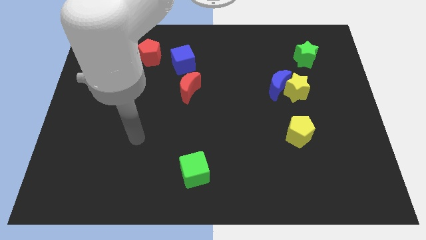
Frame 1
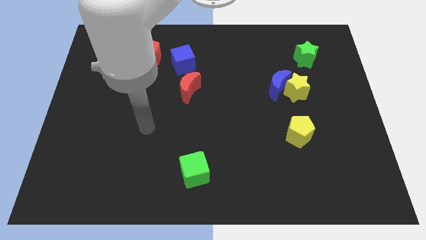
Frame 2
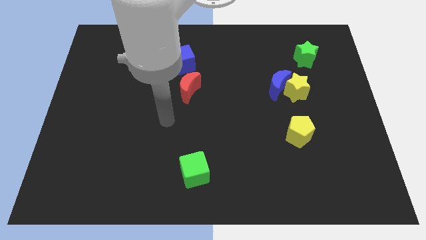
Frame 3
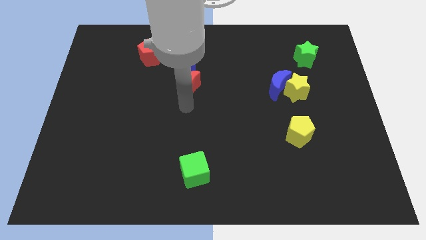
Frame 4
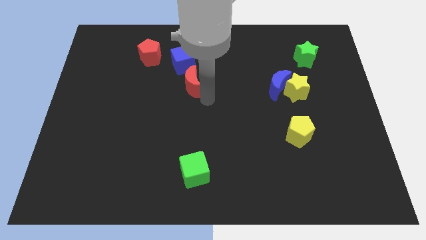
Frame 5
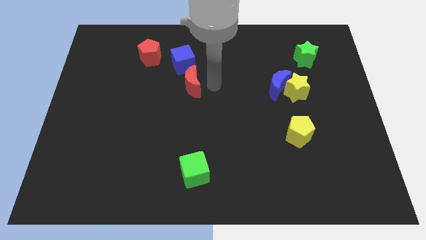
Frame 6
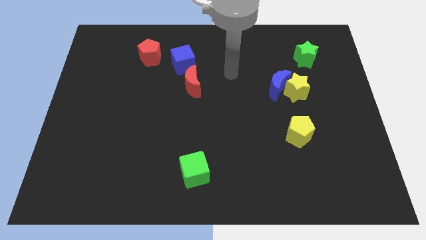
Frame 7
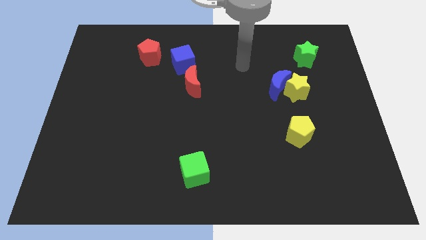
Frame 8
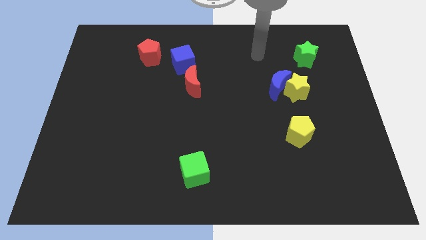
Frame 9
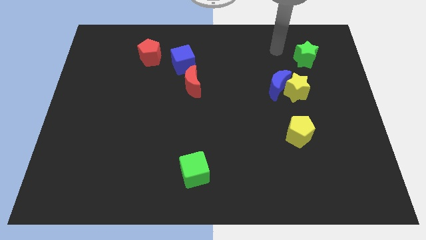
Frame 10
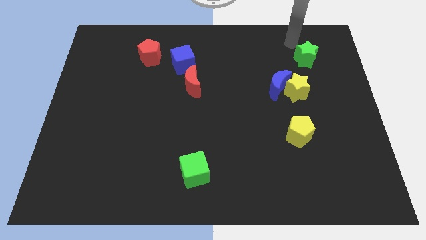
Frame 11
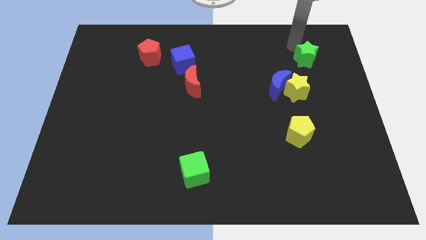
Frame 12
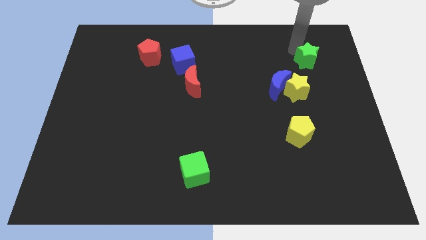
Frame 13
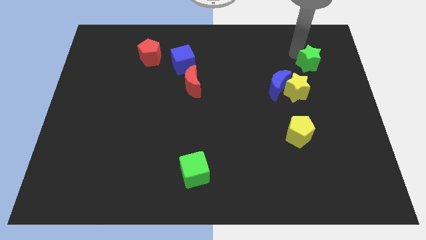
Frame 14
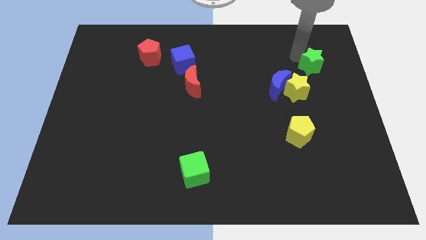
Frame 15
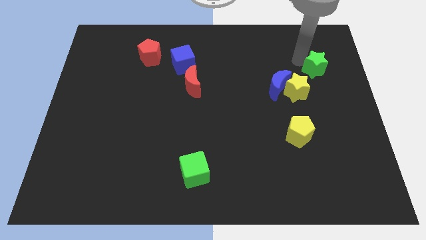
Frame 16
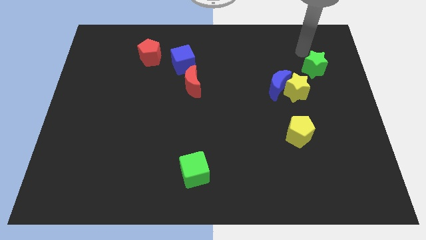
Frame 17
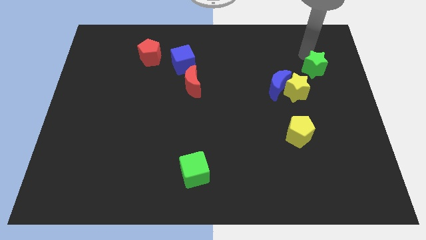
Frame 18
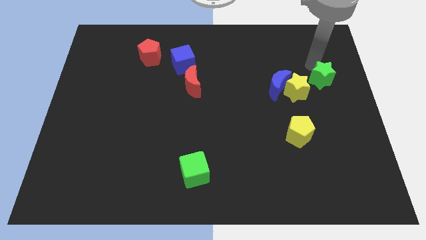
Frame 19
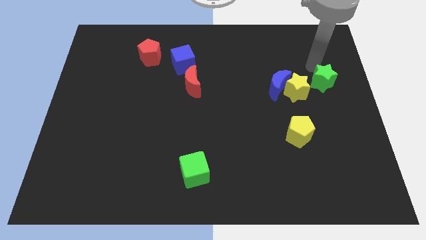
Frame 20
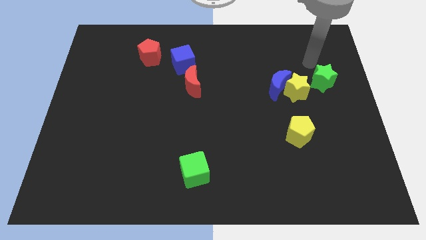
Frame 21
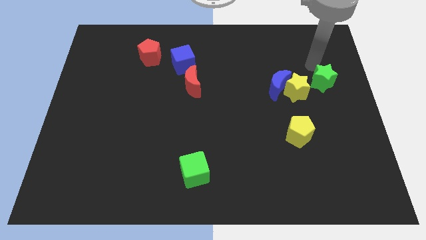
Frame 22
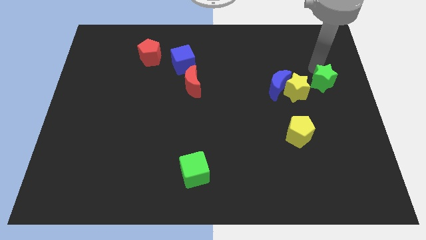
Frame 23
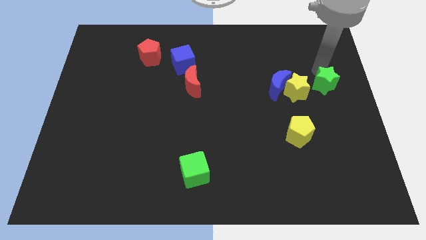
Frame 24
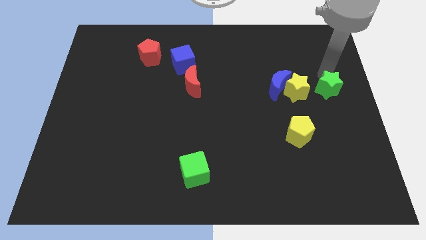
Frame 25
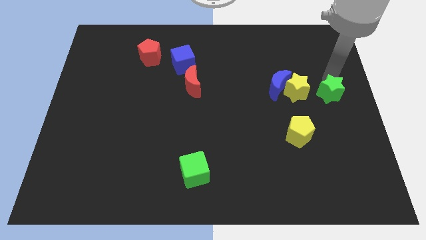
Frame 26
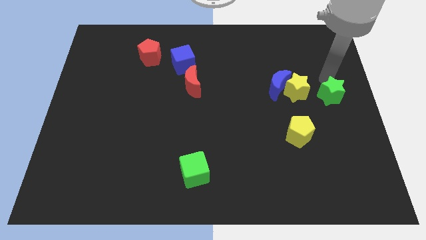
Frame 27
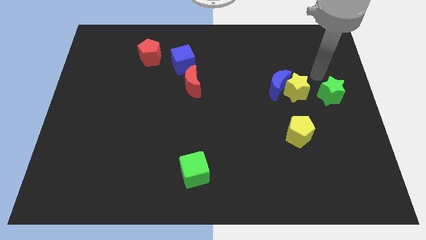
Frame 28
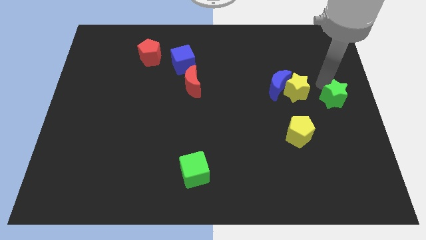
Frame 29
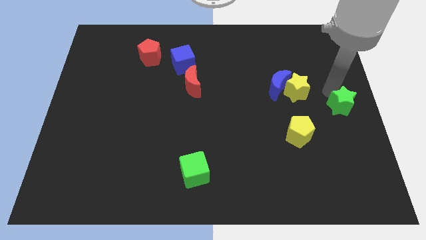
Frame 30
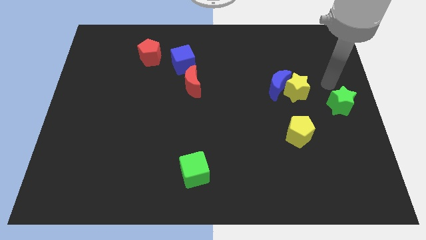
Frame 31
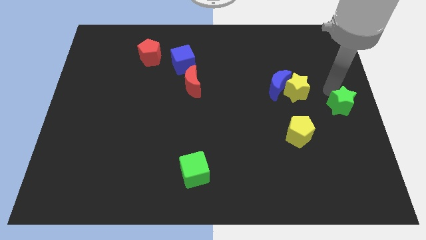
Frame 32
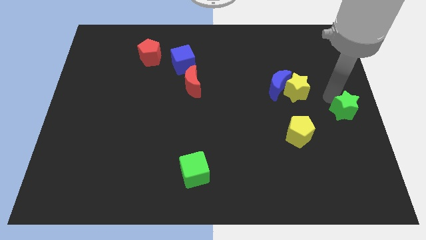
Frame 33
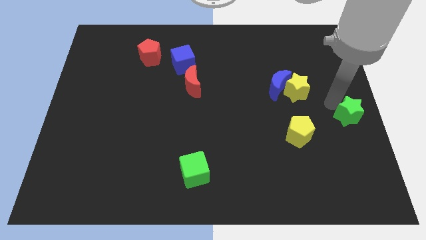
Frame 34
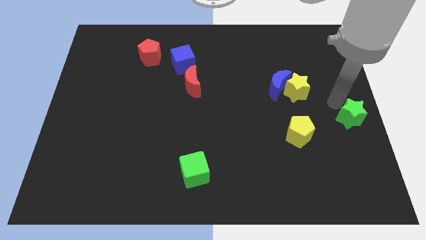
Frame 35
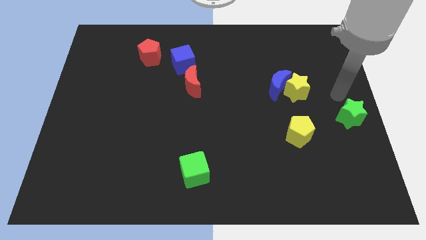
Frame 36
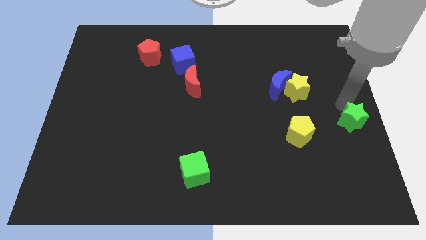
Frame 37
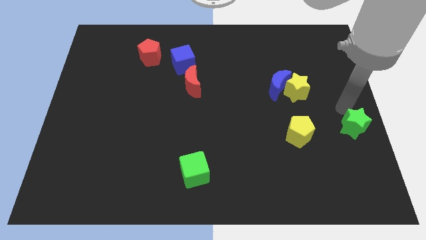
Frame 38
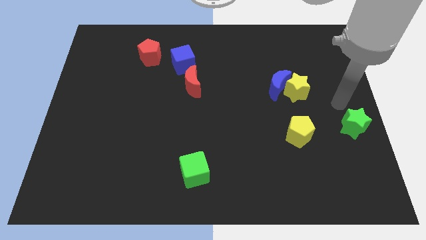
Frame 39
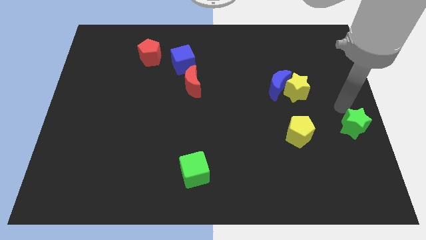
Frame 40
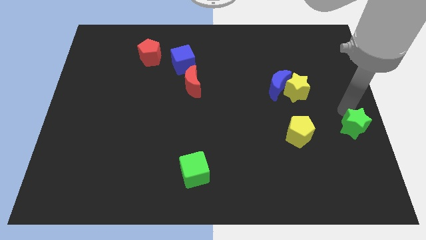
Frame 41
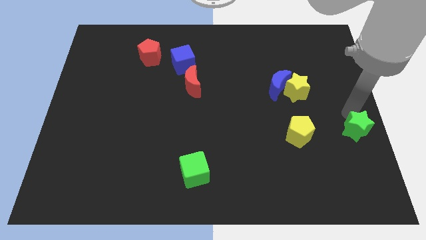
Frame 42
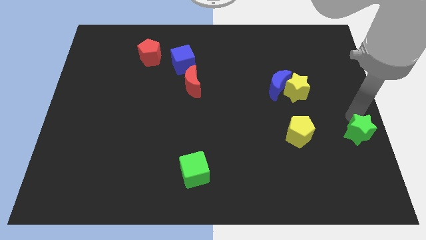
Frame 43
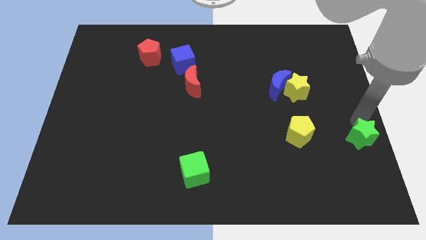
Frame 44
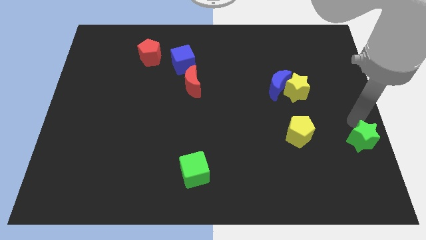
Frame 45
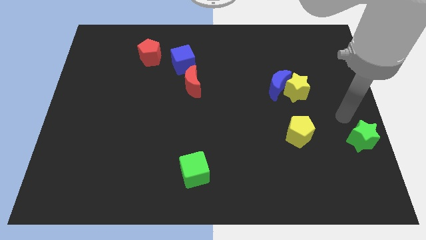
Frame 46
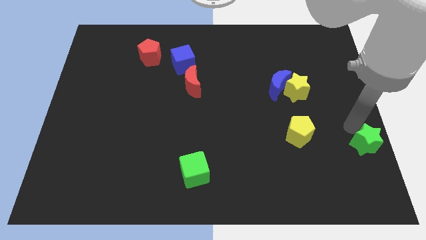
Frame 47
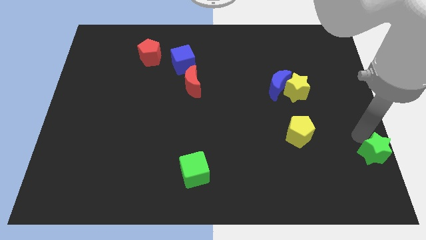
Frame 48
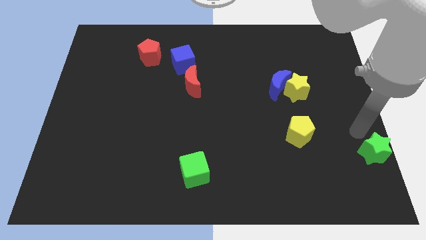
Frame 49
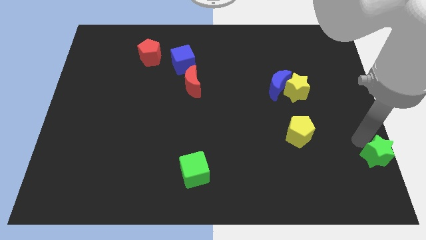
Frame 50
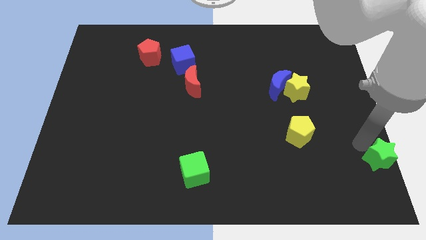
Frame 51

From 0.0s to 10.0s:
put the green star to the lower right corner

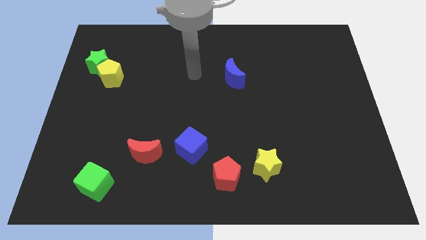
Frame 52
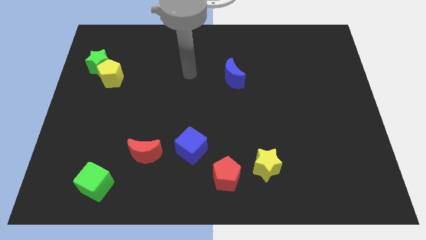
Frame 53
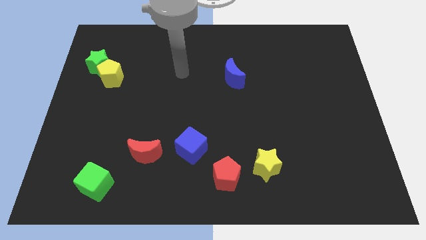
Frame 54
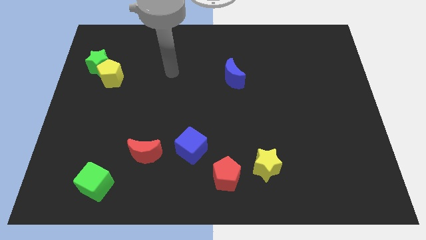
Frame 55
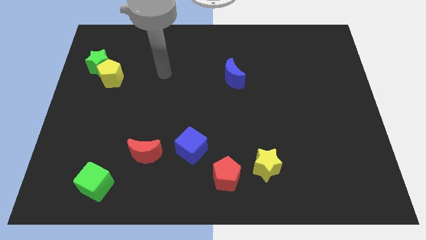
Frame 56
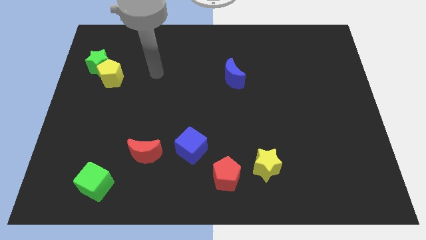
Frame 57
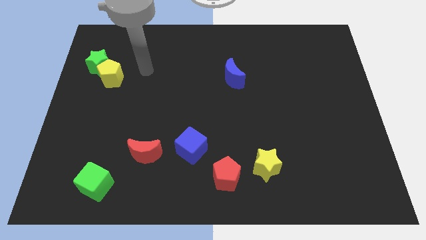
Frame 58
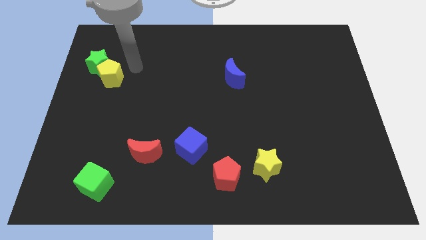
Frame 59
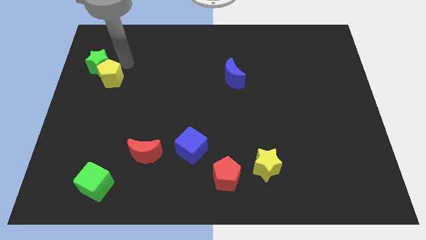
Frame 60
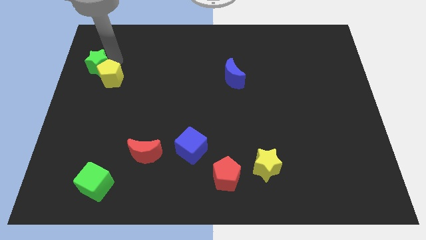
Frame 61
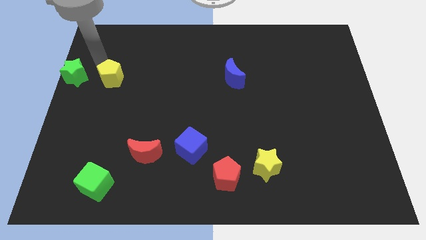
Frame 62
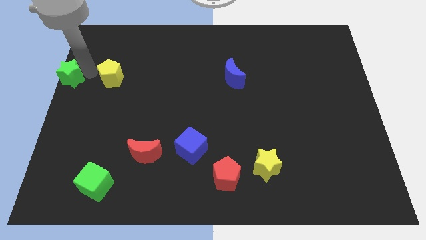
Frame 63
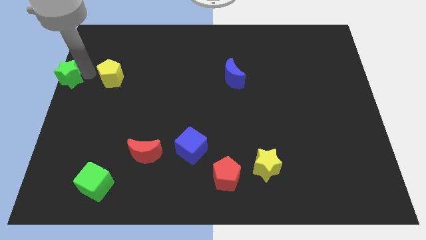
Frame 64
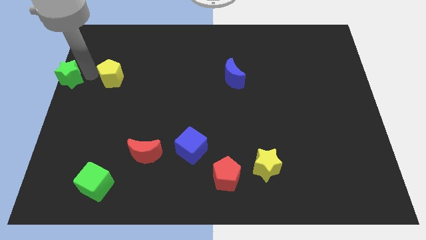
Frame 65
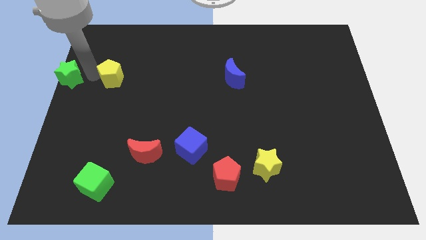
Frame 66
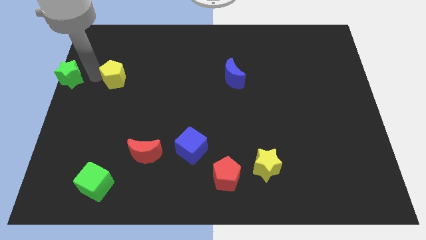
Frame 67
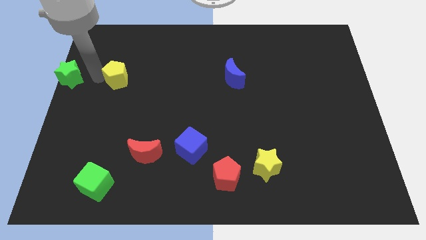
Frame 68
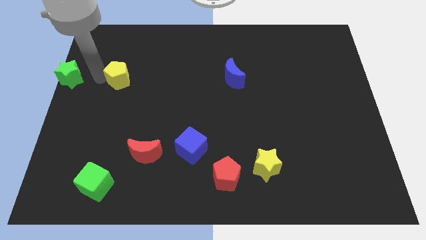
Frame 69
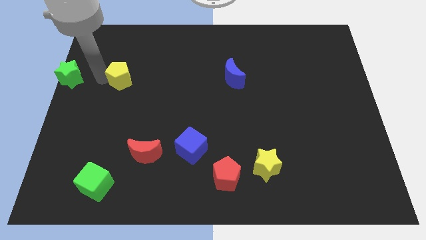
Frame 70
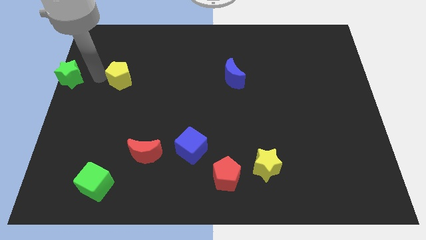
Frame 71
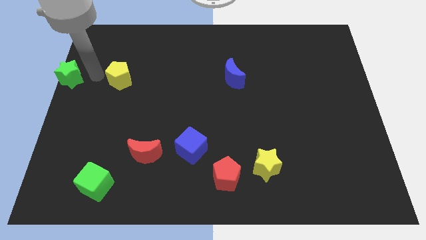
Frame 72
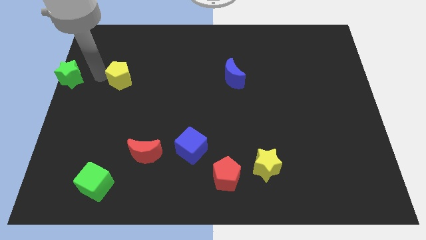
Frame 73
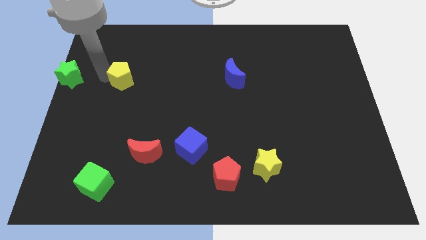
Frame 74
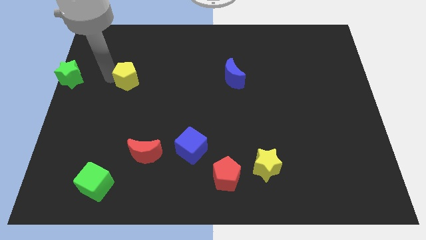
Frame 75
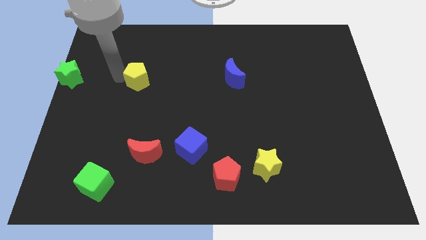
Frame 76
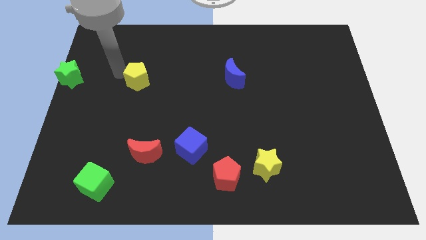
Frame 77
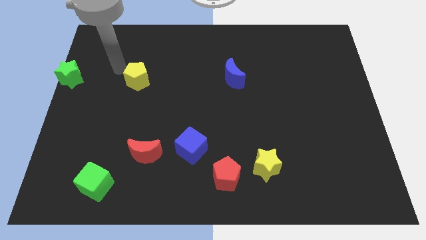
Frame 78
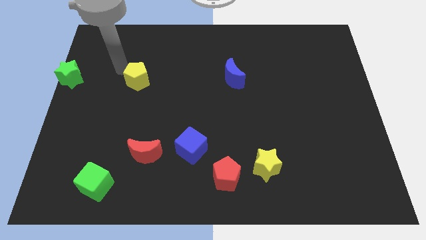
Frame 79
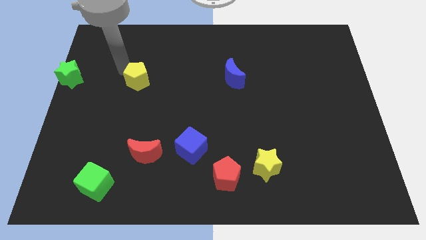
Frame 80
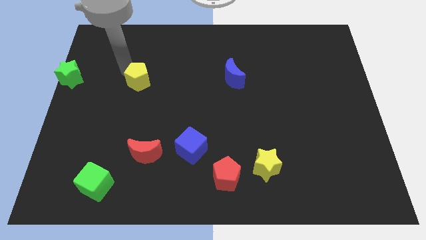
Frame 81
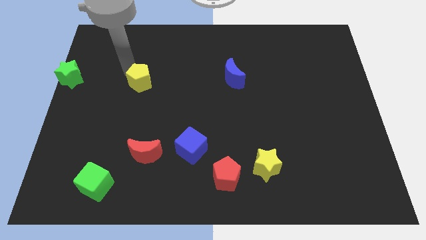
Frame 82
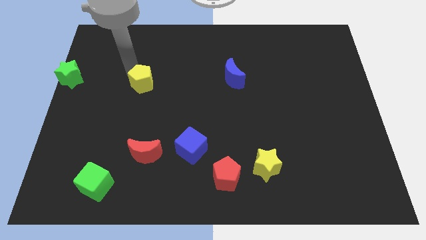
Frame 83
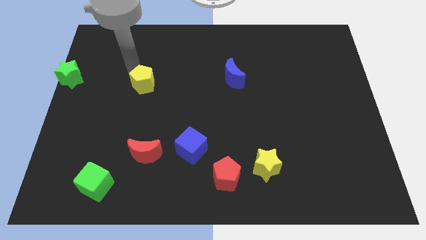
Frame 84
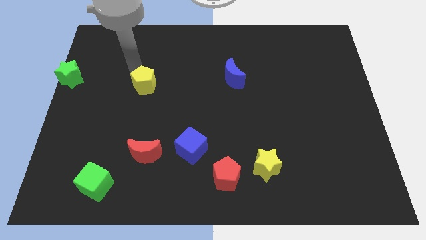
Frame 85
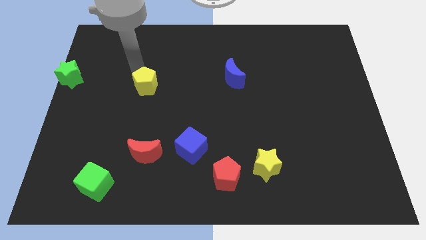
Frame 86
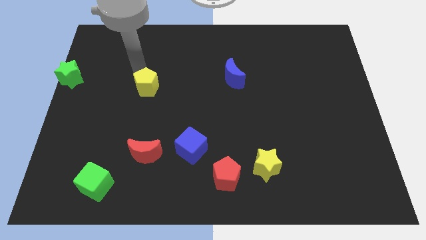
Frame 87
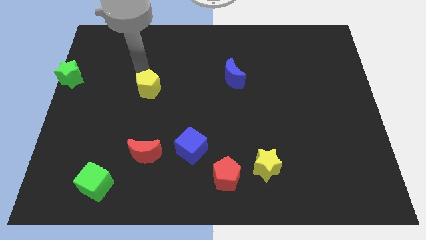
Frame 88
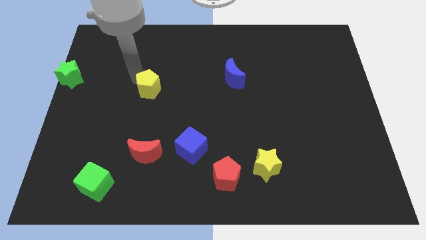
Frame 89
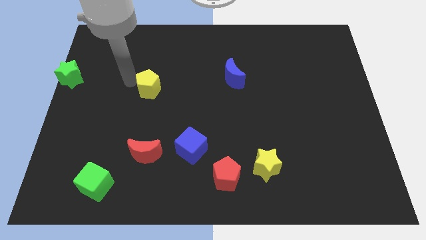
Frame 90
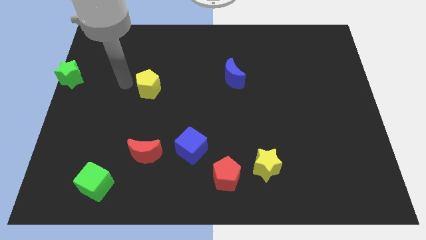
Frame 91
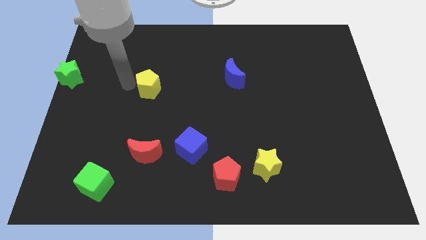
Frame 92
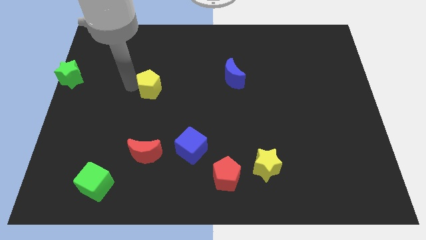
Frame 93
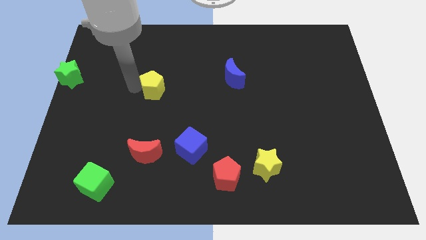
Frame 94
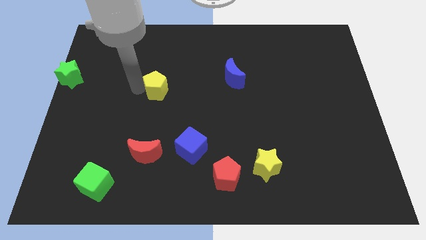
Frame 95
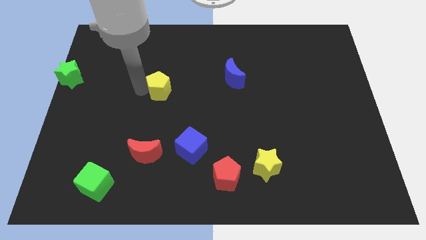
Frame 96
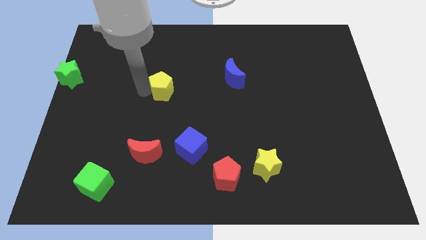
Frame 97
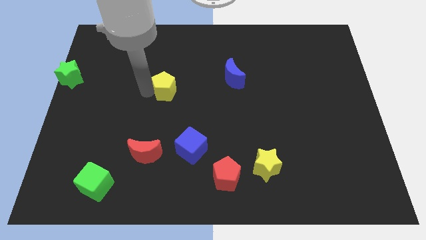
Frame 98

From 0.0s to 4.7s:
slide the yellow pentagon to the center of the board
